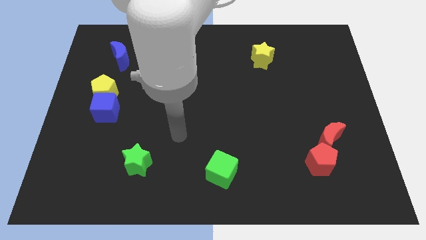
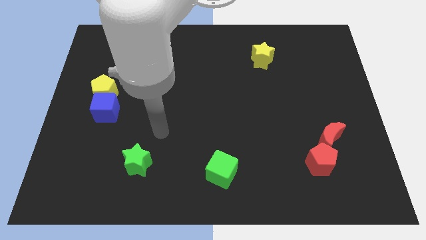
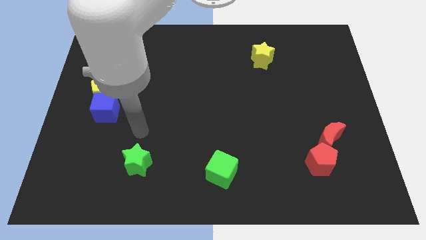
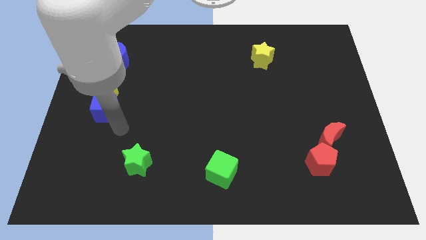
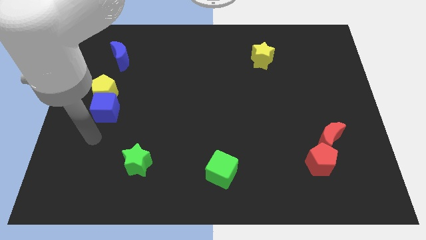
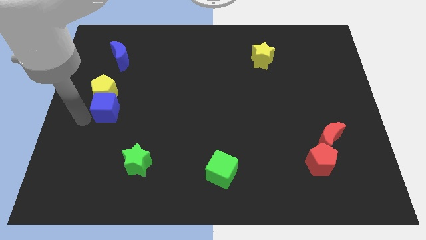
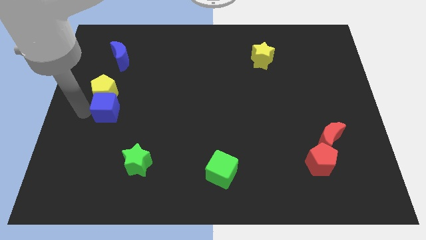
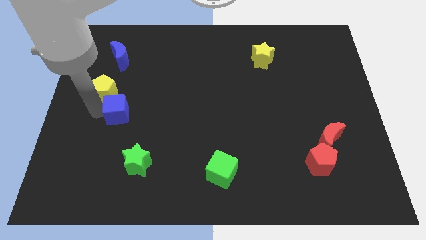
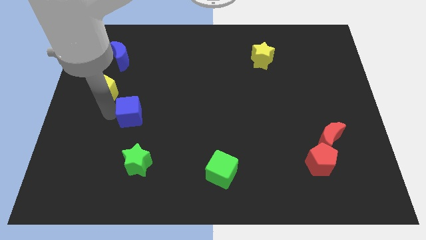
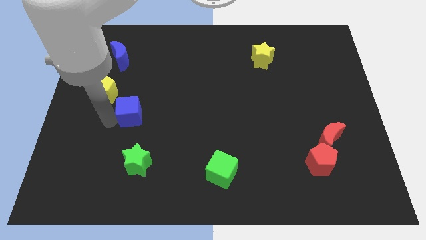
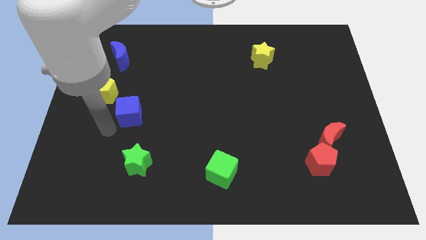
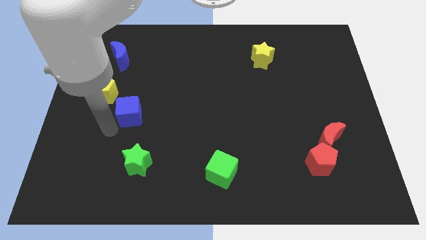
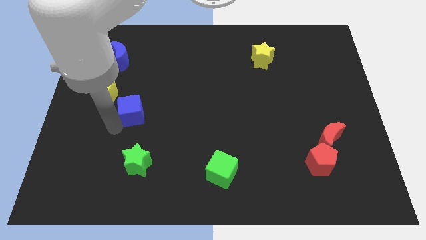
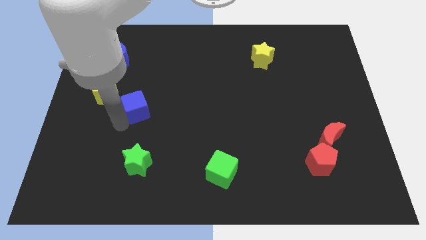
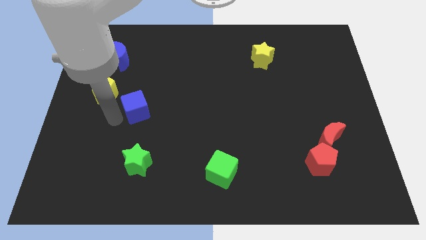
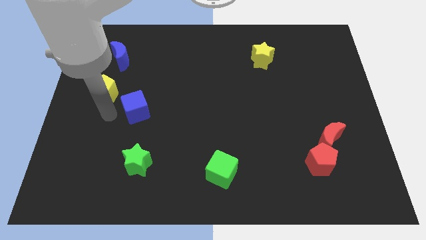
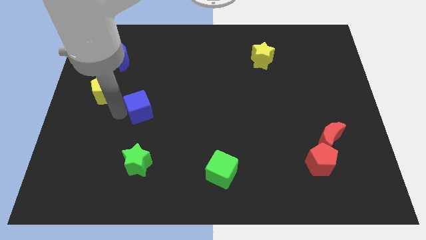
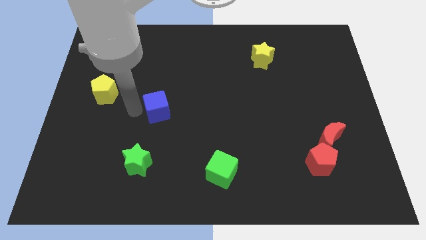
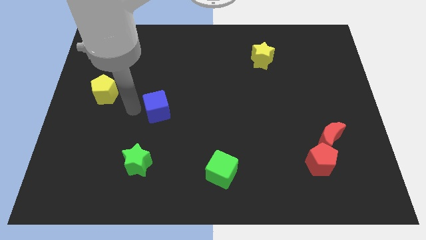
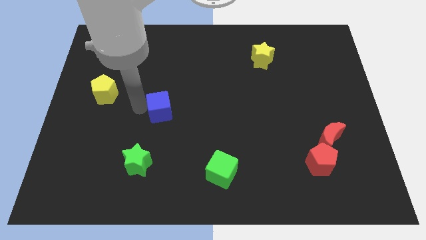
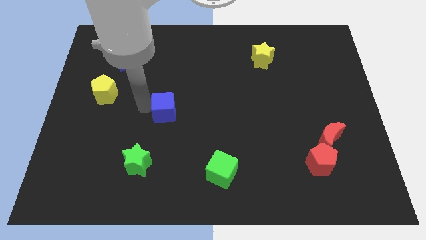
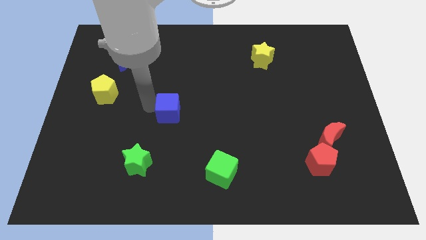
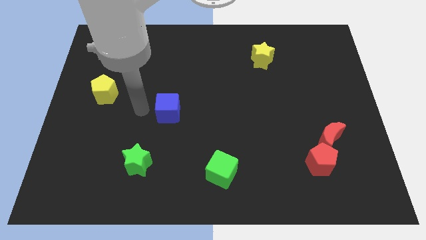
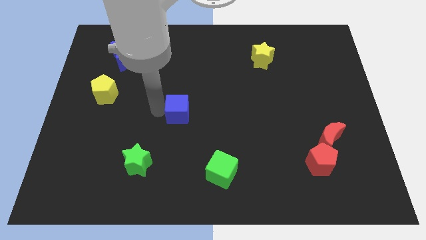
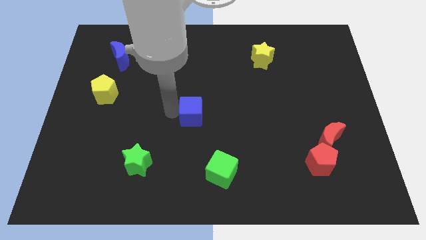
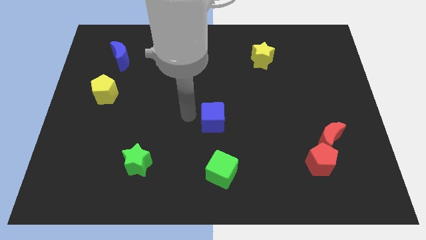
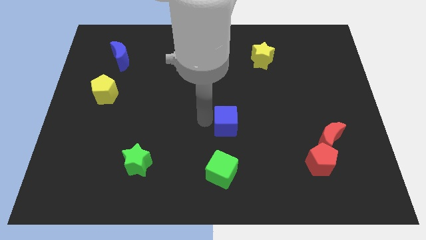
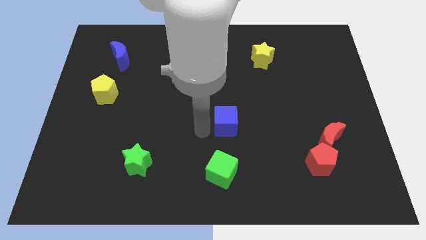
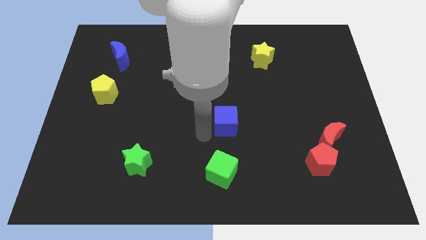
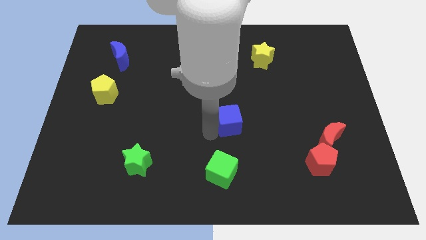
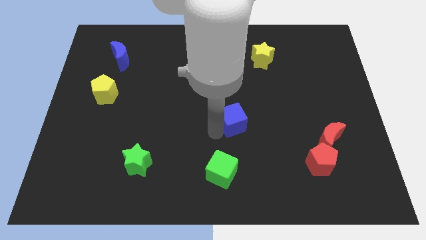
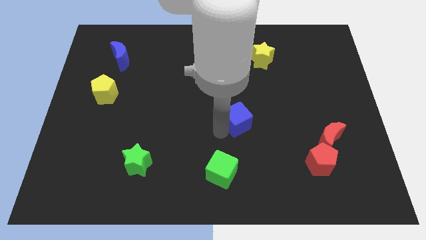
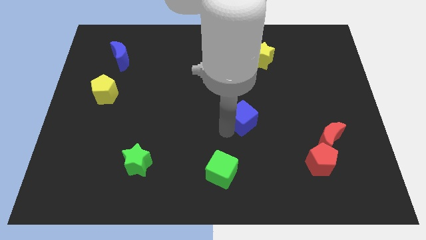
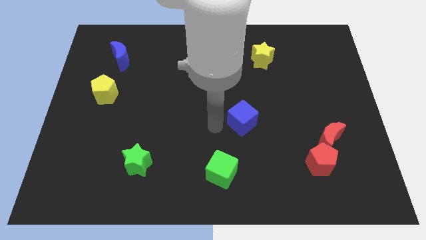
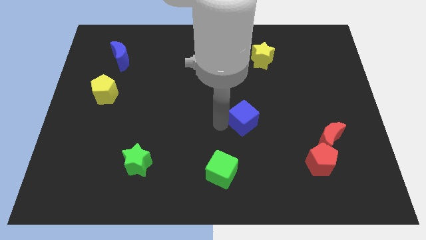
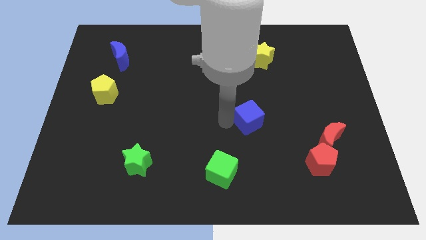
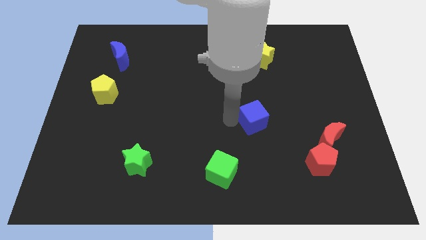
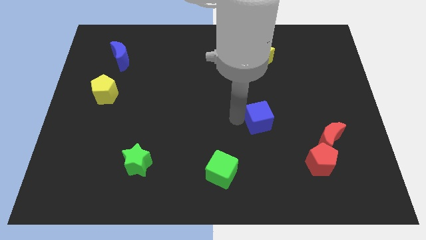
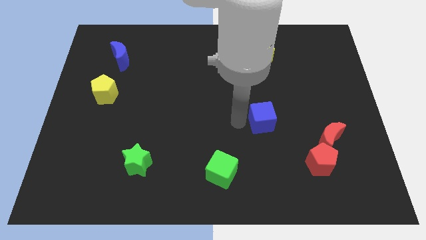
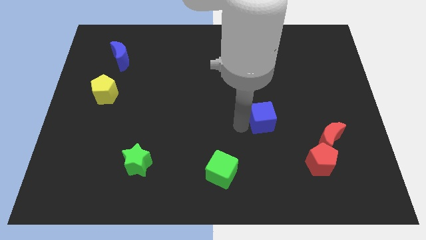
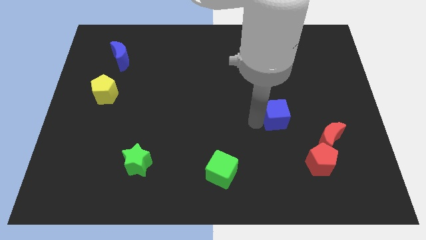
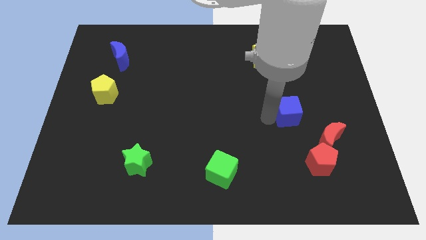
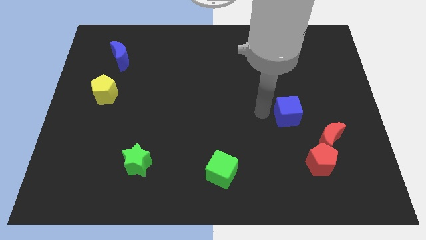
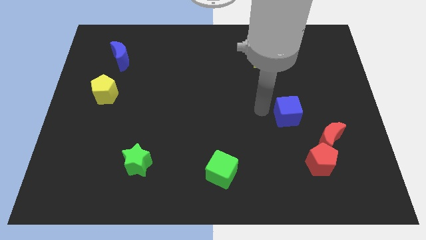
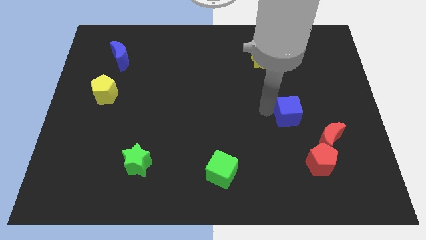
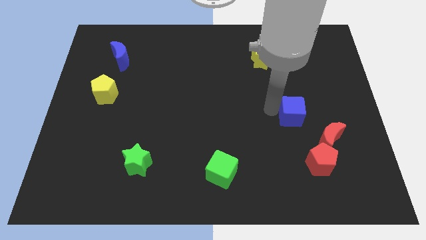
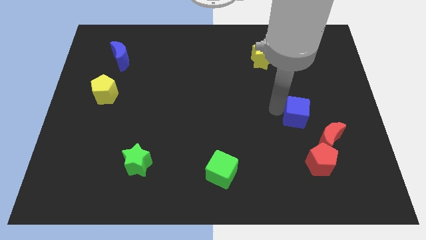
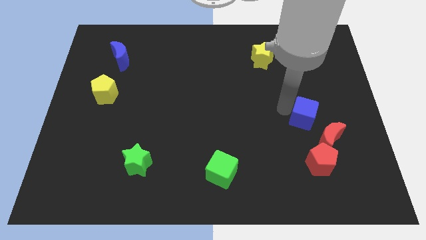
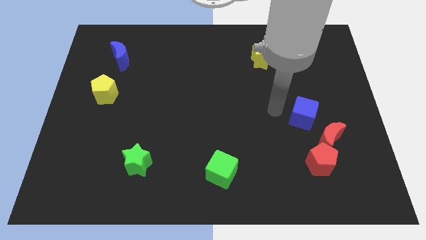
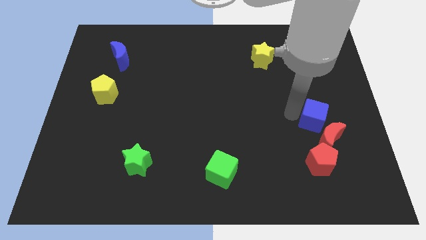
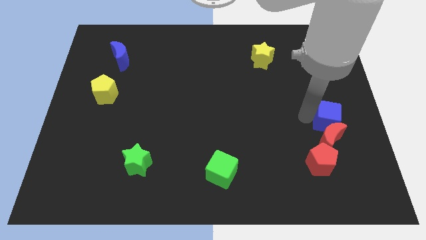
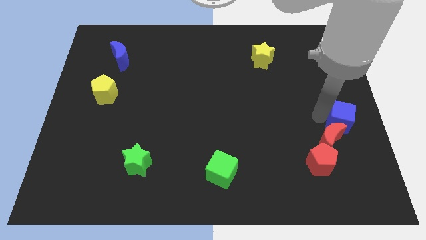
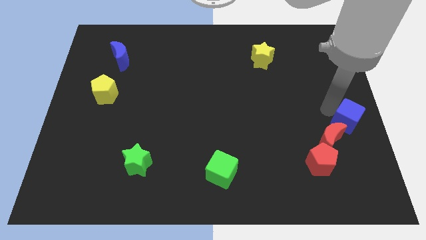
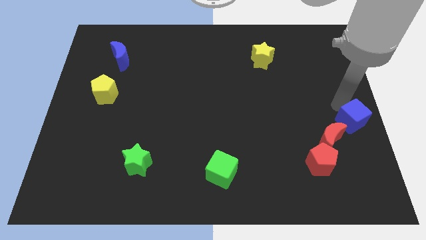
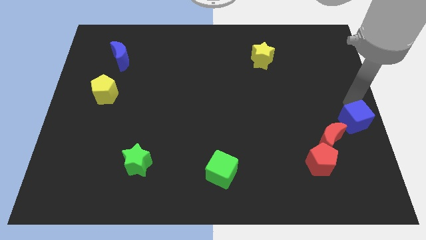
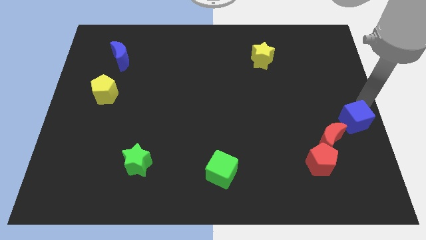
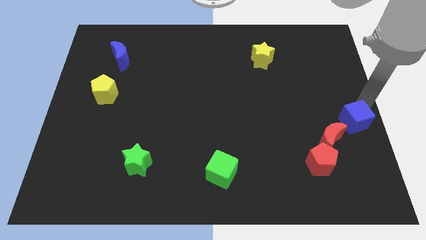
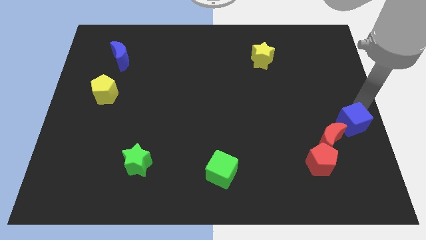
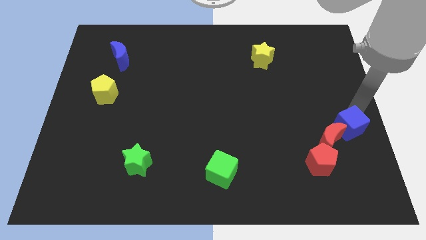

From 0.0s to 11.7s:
put the blue cube to the top right side of the red pentagon

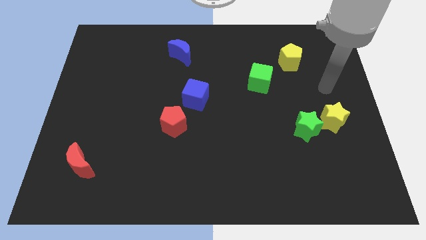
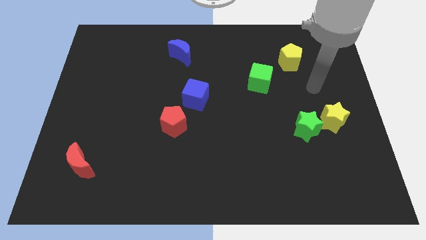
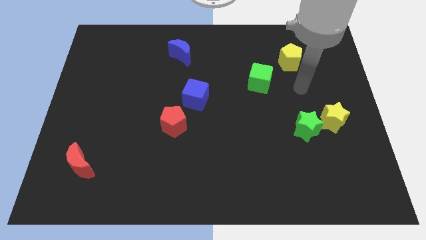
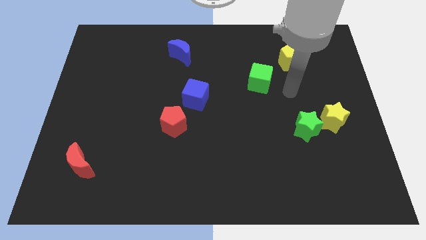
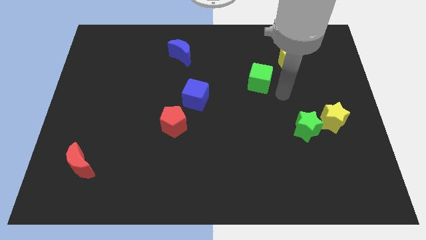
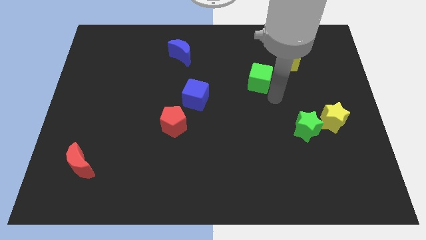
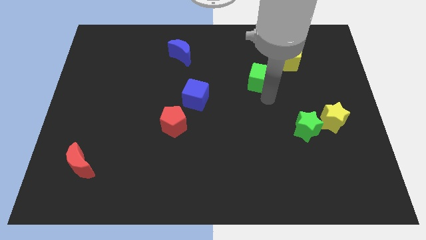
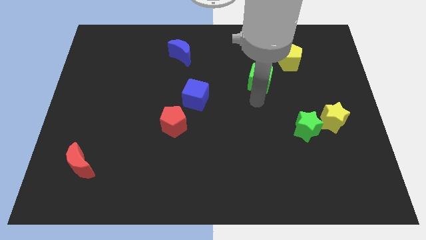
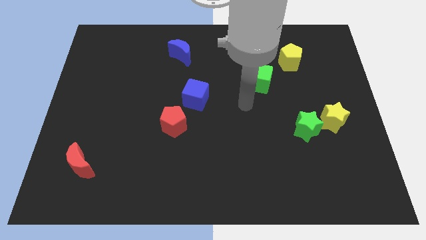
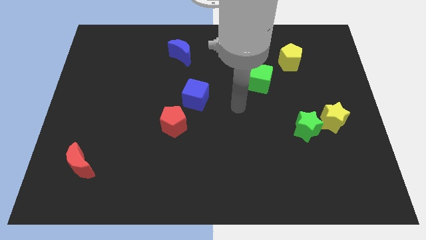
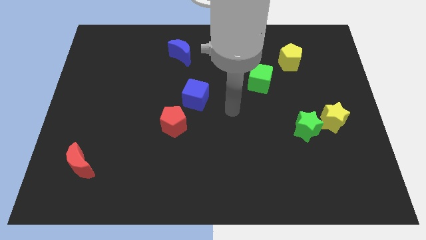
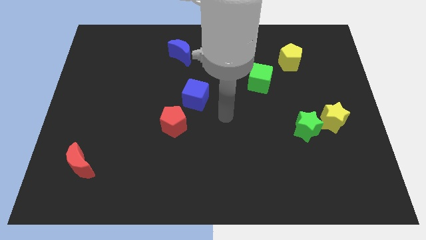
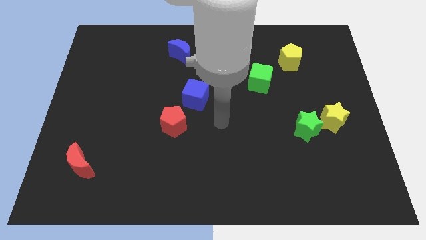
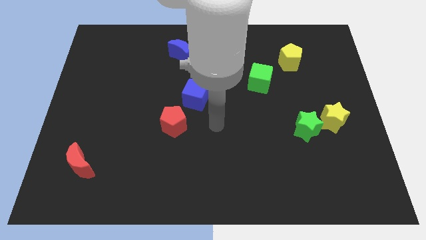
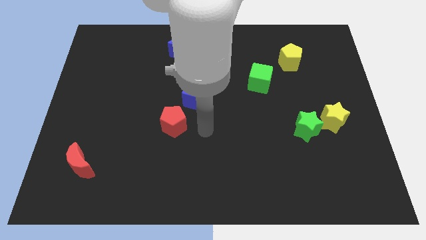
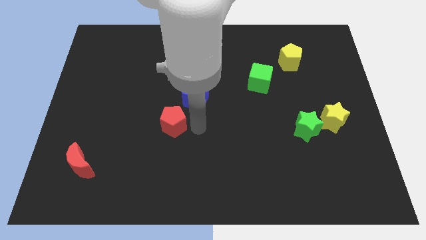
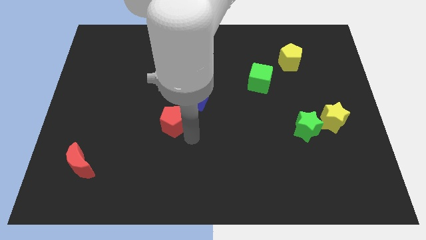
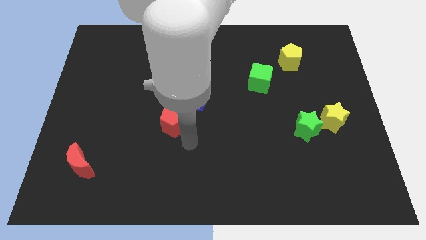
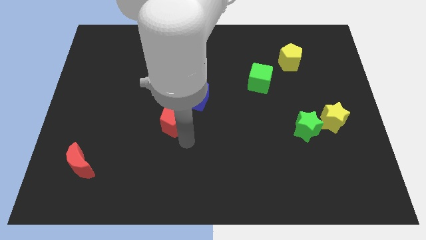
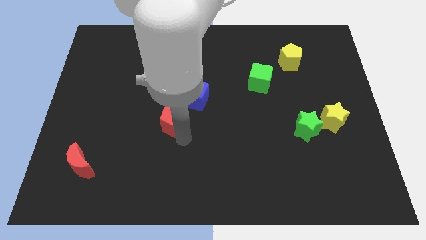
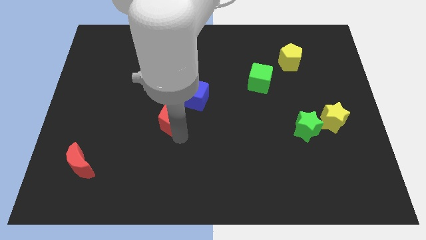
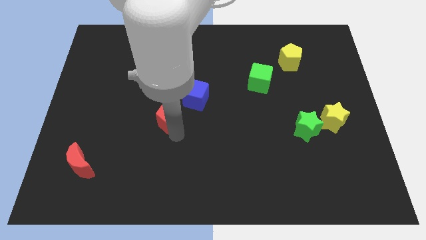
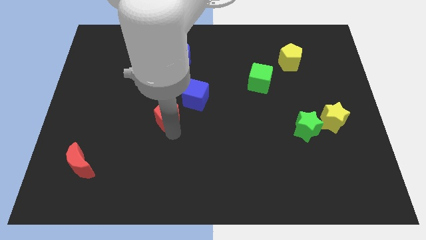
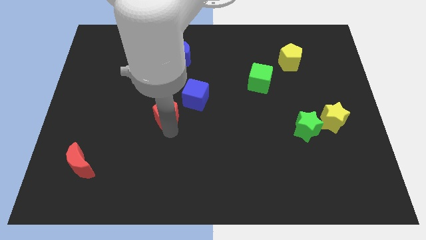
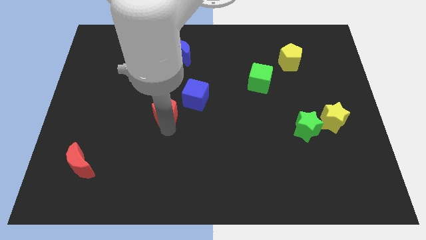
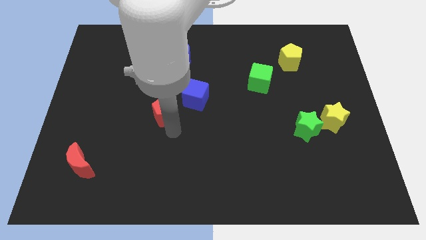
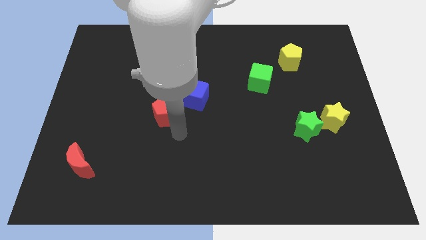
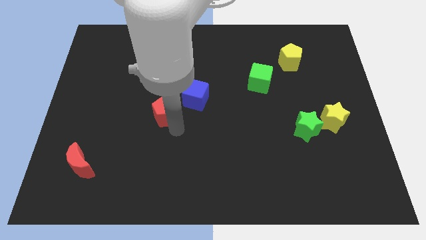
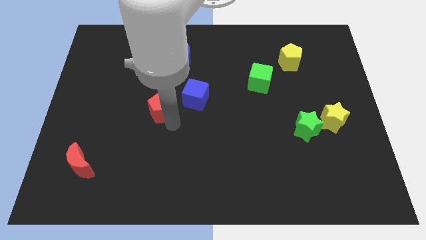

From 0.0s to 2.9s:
put the red pentagon left of the blue cube
